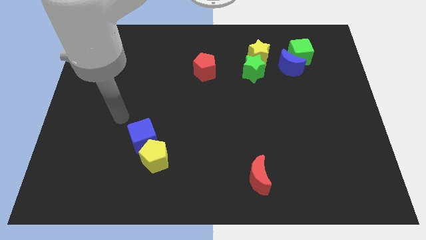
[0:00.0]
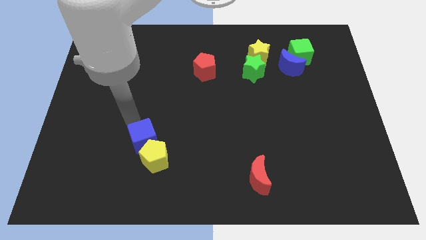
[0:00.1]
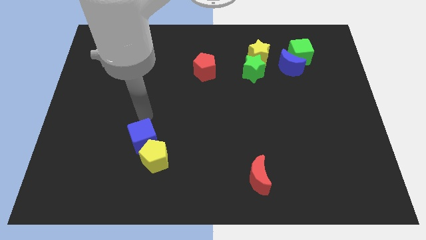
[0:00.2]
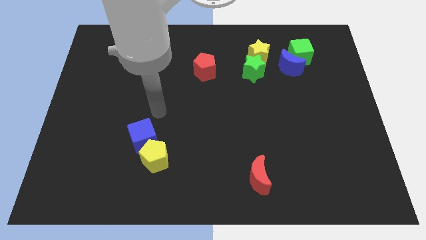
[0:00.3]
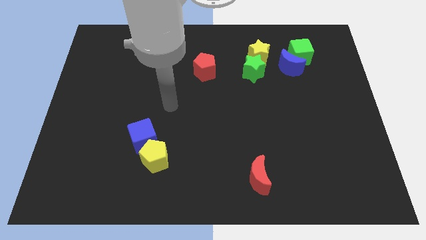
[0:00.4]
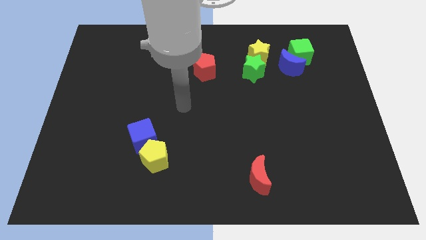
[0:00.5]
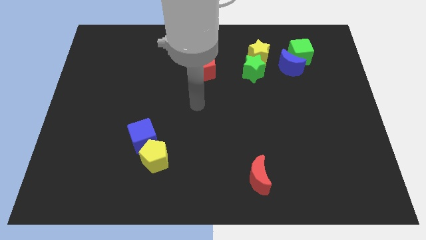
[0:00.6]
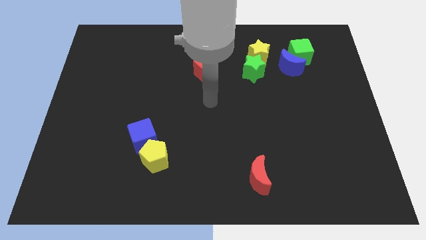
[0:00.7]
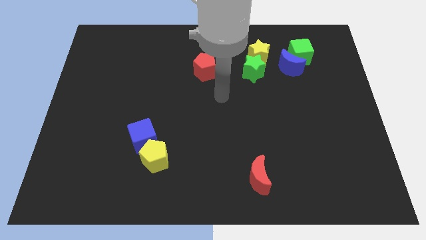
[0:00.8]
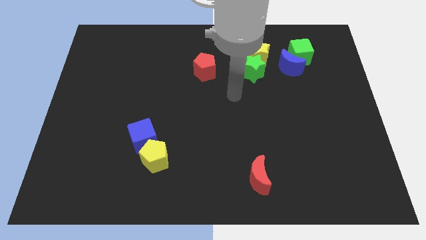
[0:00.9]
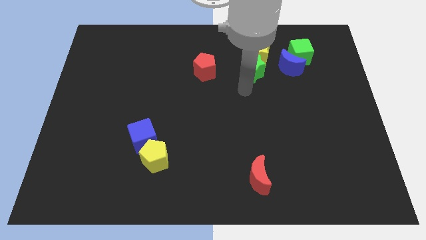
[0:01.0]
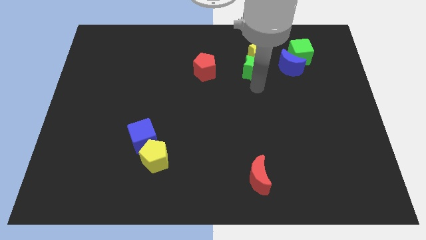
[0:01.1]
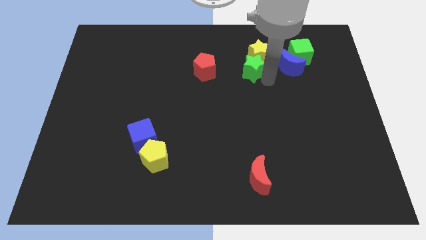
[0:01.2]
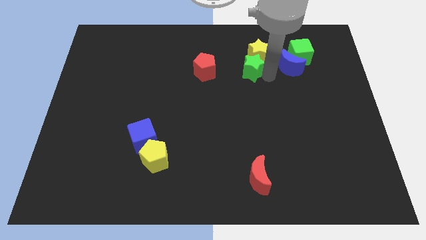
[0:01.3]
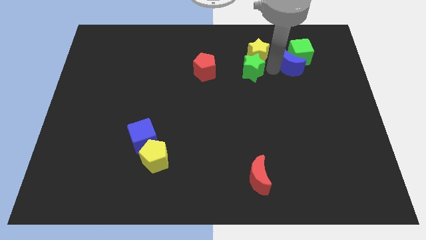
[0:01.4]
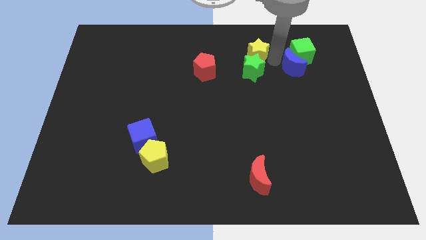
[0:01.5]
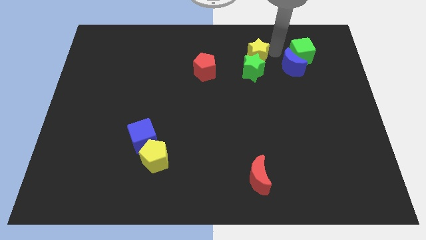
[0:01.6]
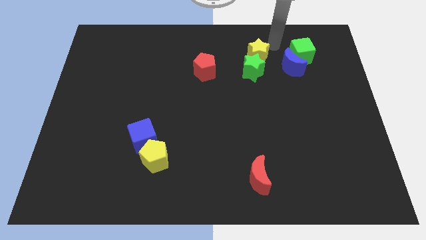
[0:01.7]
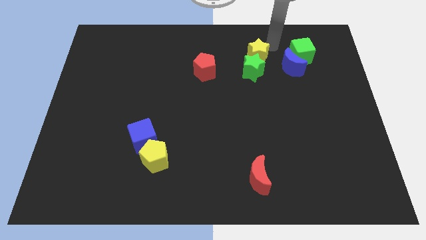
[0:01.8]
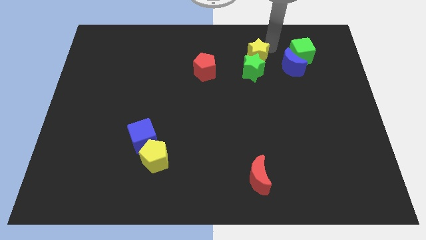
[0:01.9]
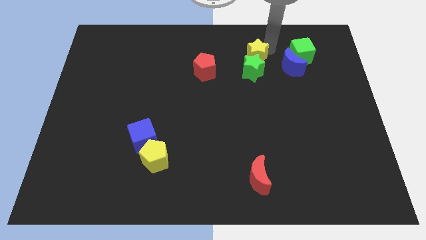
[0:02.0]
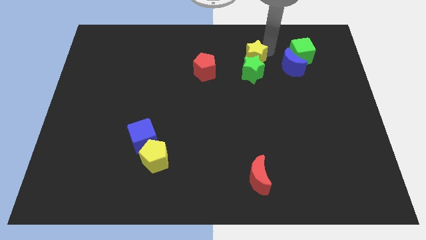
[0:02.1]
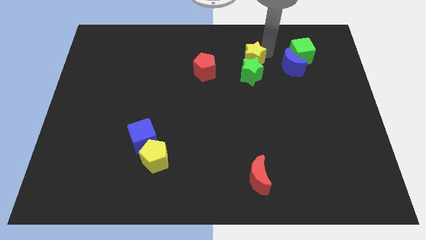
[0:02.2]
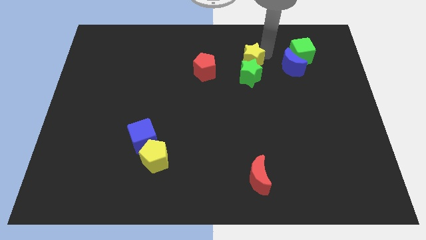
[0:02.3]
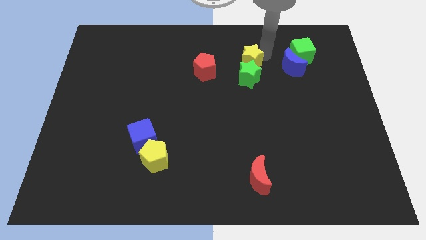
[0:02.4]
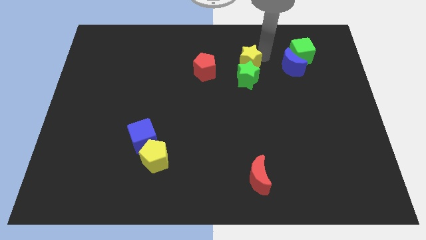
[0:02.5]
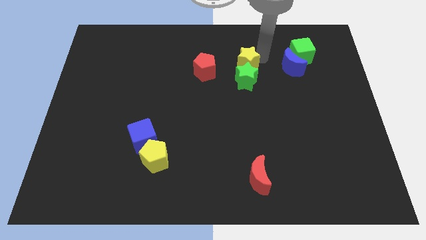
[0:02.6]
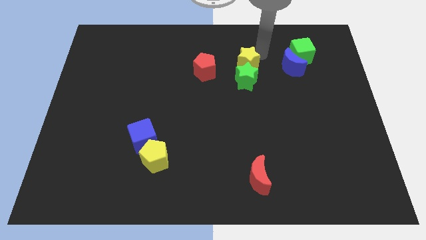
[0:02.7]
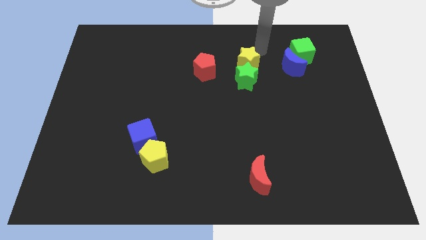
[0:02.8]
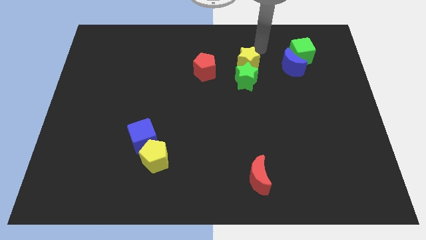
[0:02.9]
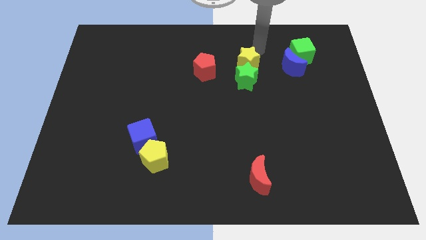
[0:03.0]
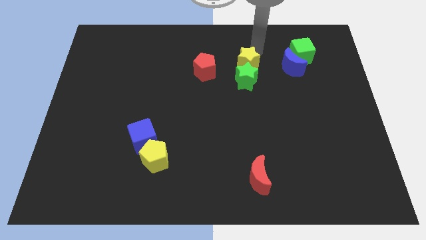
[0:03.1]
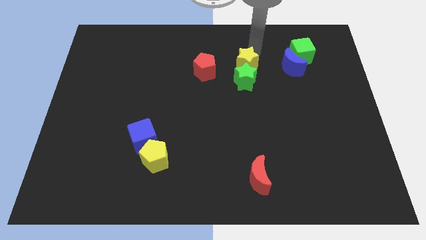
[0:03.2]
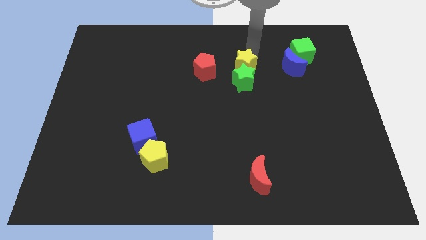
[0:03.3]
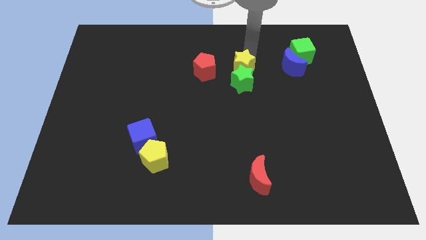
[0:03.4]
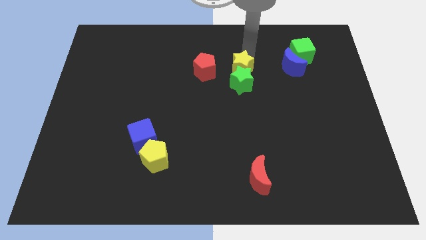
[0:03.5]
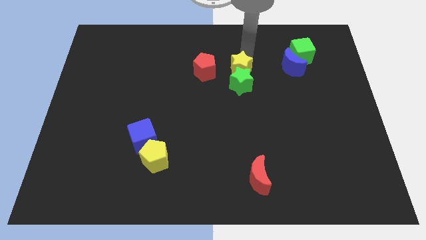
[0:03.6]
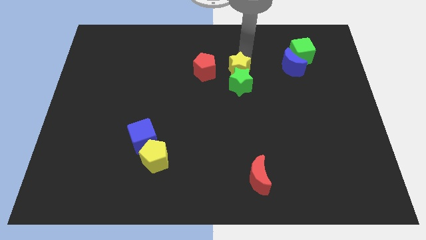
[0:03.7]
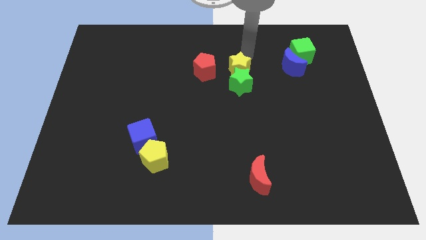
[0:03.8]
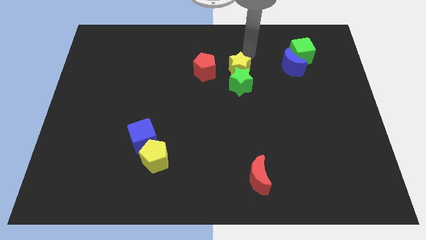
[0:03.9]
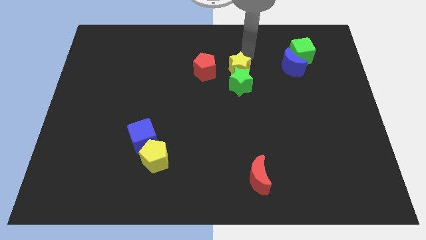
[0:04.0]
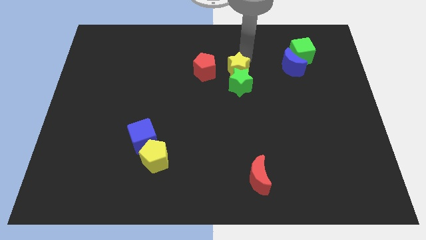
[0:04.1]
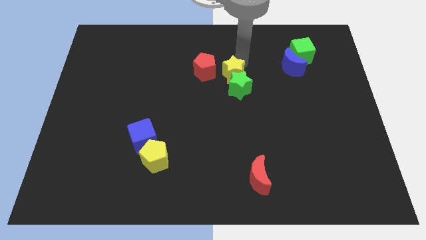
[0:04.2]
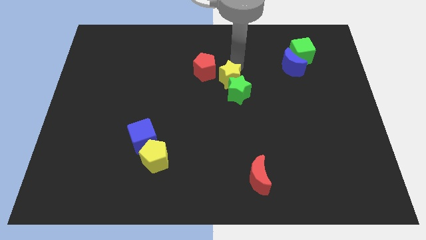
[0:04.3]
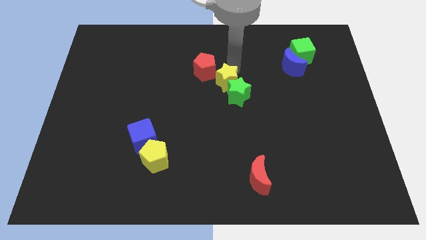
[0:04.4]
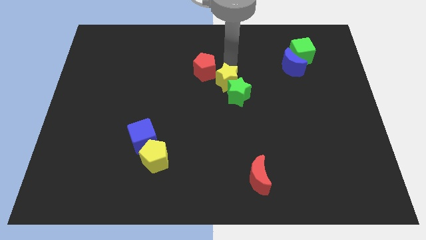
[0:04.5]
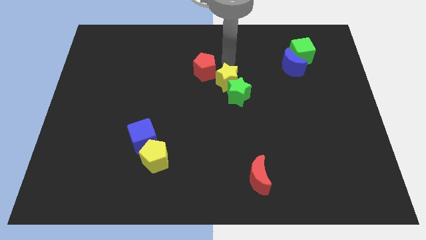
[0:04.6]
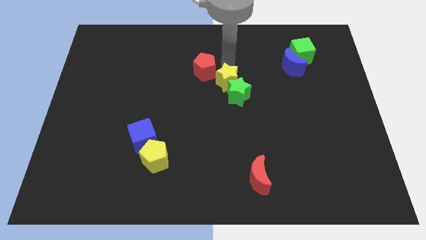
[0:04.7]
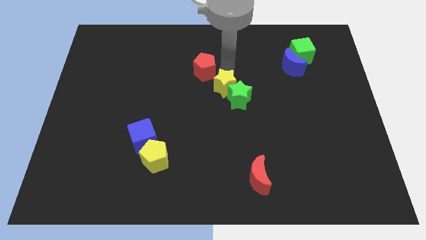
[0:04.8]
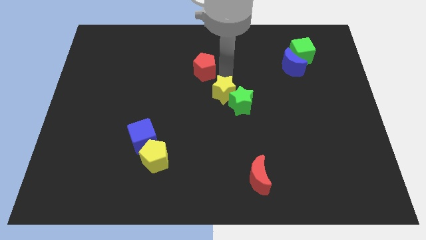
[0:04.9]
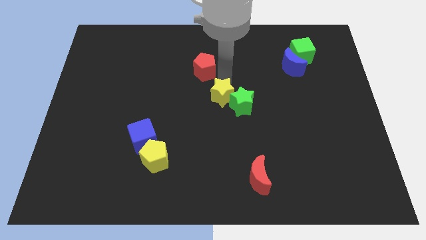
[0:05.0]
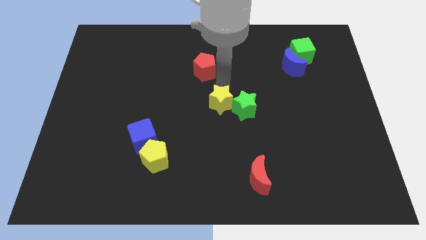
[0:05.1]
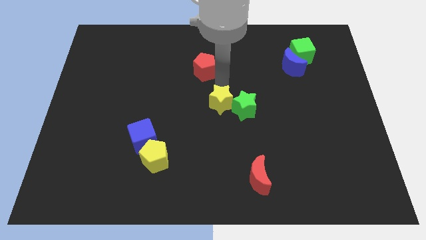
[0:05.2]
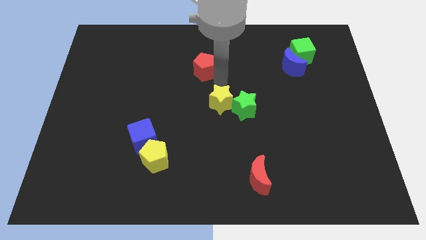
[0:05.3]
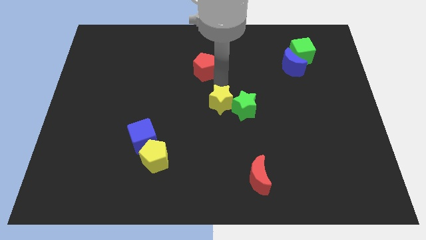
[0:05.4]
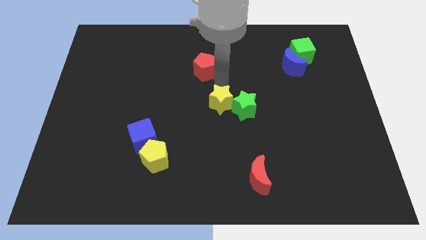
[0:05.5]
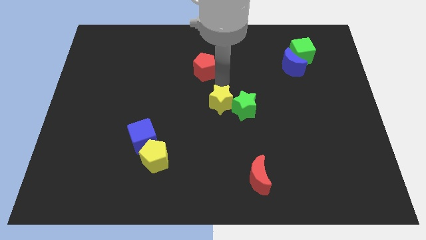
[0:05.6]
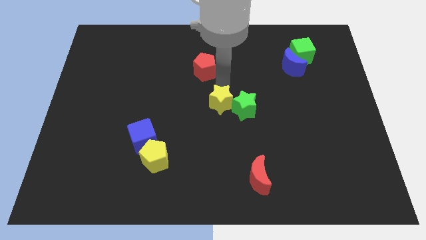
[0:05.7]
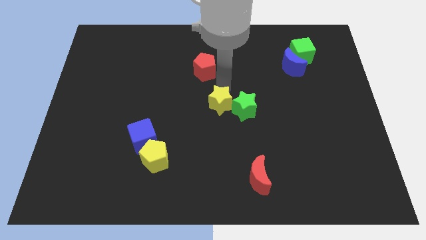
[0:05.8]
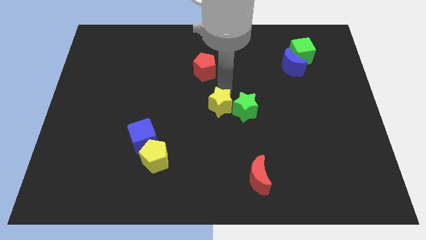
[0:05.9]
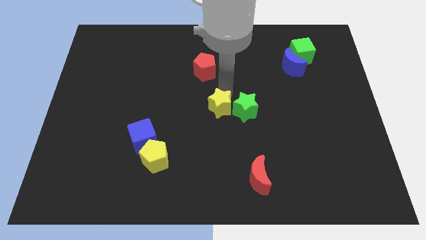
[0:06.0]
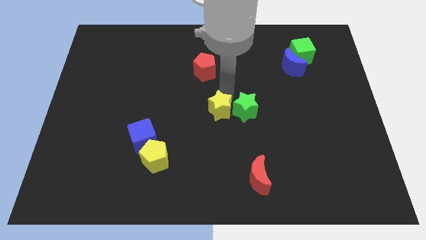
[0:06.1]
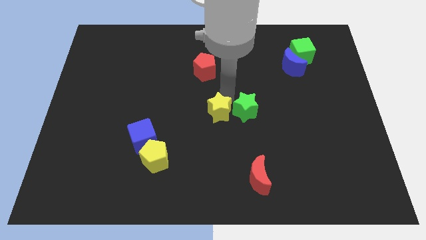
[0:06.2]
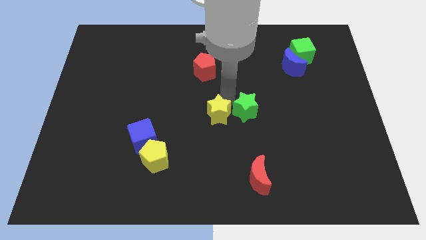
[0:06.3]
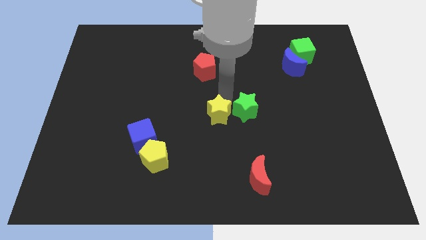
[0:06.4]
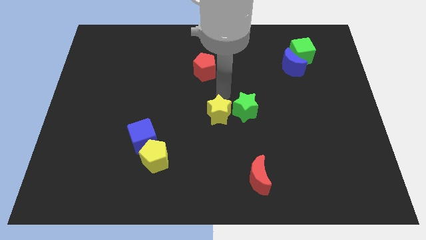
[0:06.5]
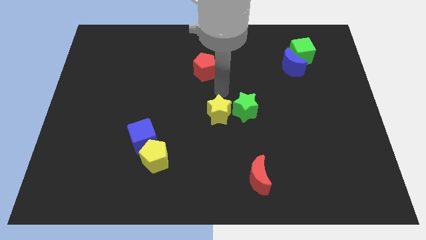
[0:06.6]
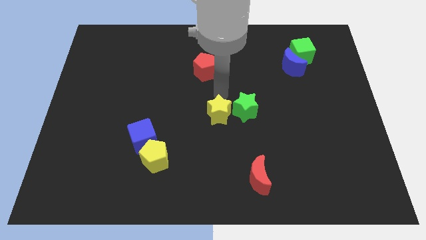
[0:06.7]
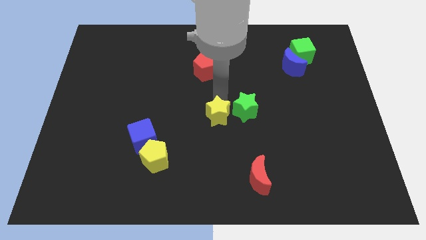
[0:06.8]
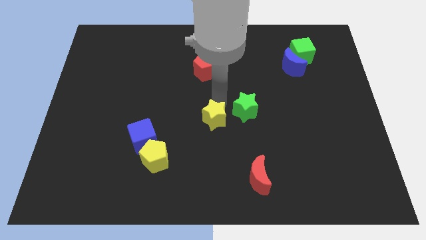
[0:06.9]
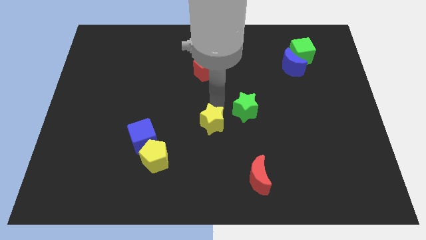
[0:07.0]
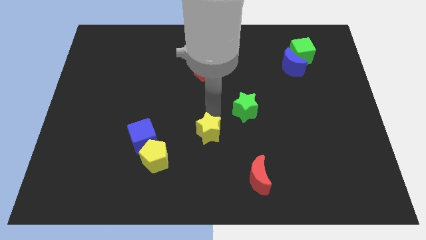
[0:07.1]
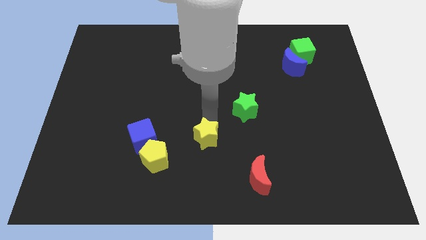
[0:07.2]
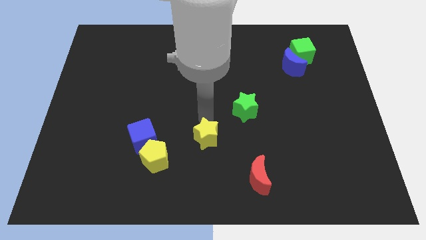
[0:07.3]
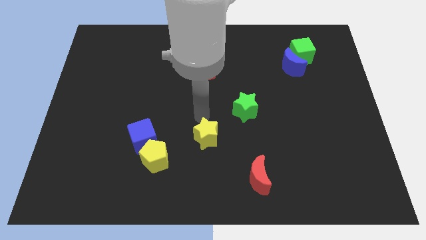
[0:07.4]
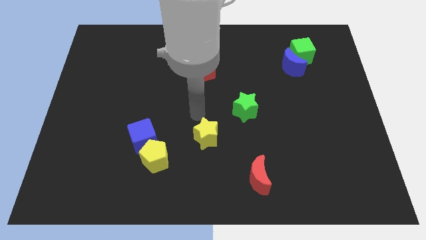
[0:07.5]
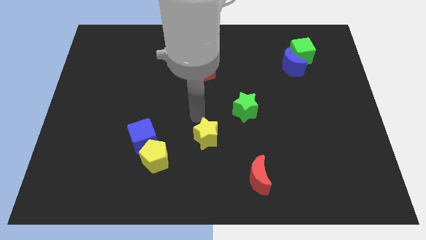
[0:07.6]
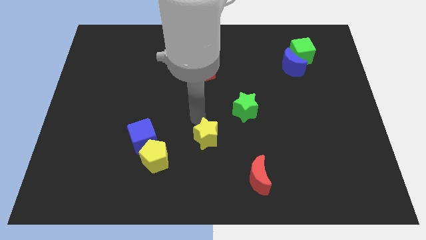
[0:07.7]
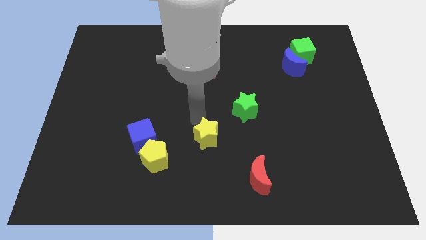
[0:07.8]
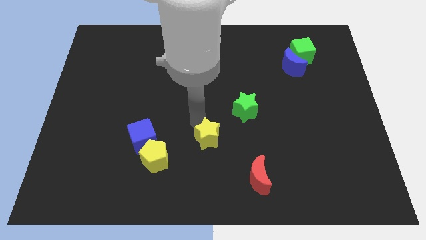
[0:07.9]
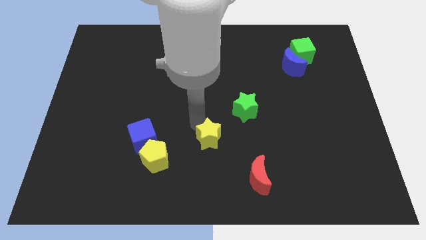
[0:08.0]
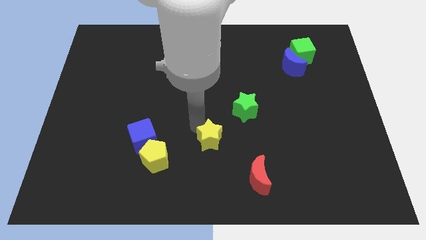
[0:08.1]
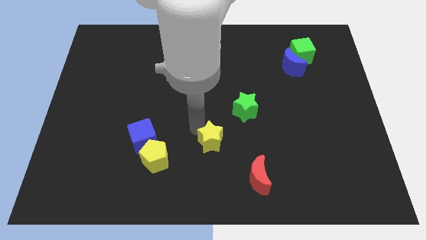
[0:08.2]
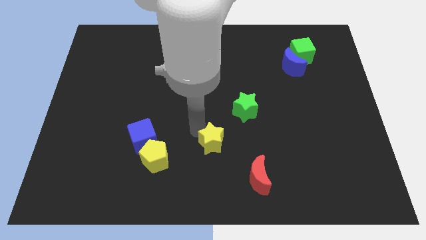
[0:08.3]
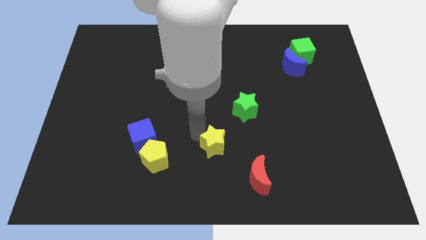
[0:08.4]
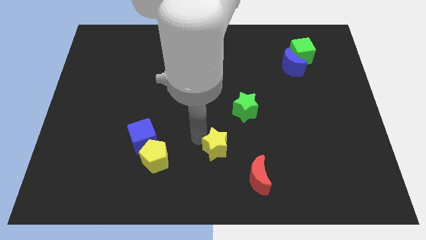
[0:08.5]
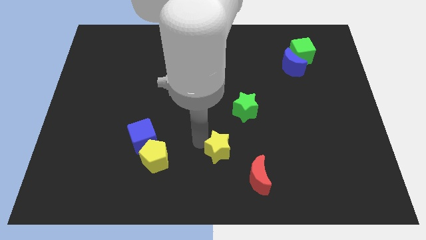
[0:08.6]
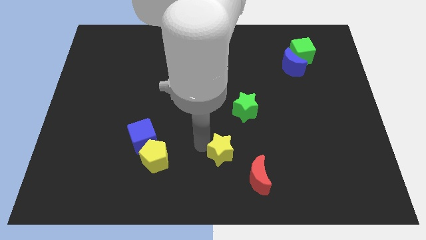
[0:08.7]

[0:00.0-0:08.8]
move the yellow star to the bottom
